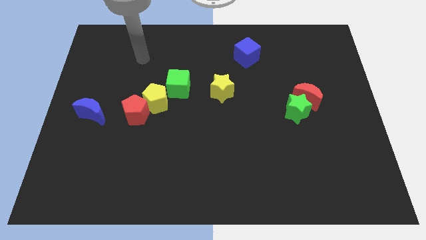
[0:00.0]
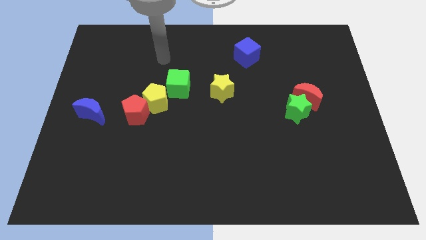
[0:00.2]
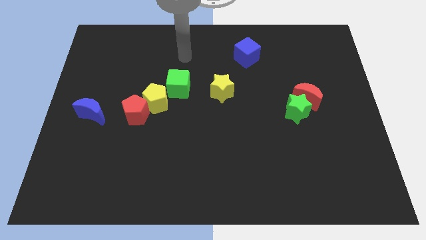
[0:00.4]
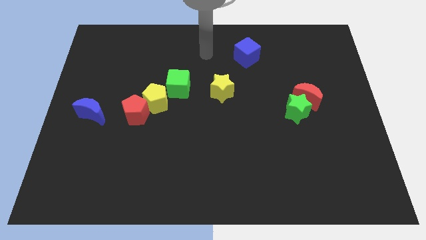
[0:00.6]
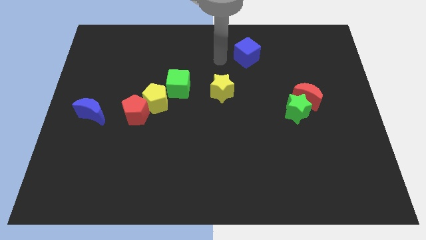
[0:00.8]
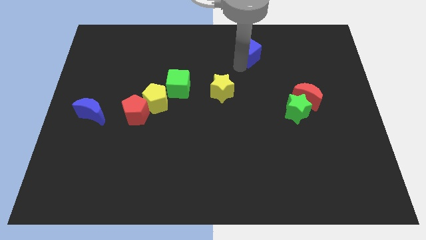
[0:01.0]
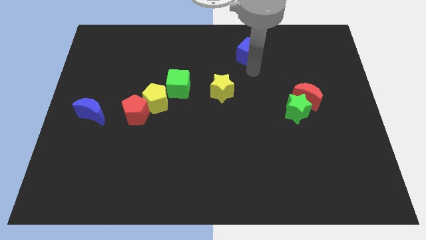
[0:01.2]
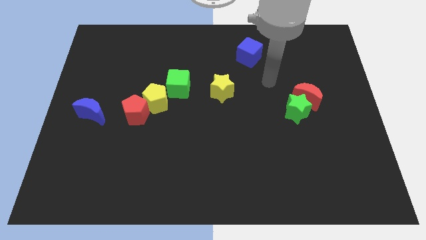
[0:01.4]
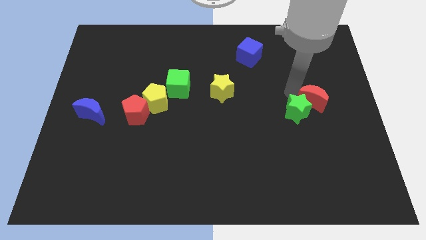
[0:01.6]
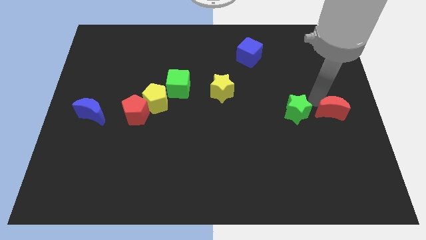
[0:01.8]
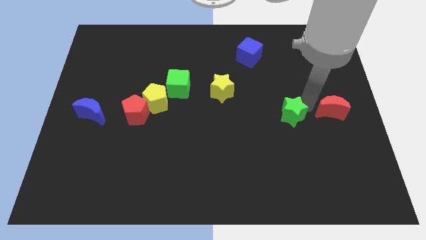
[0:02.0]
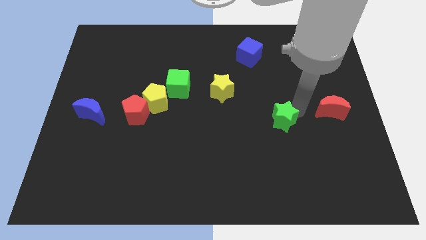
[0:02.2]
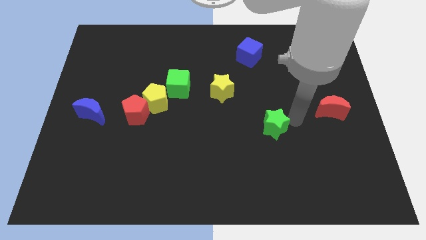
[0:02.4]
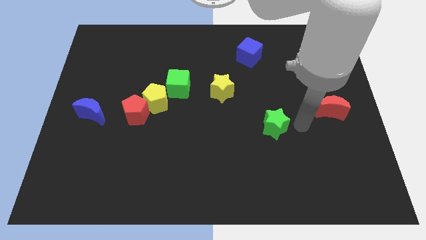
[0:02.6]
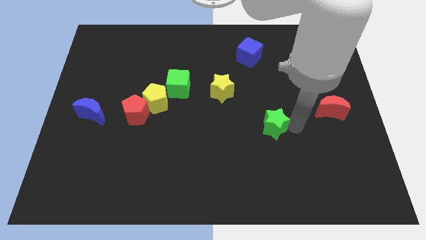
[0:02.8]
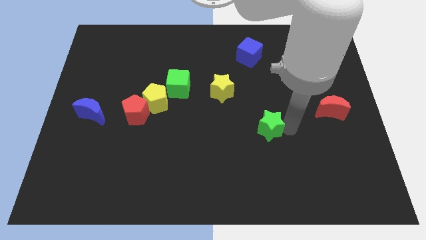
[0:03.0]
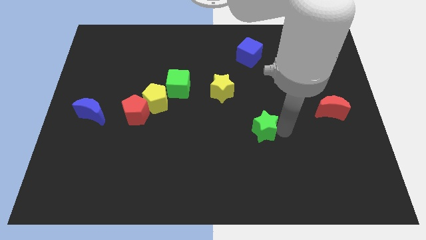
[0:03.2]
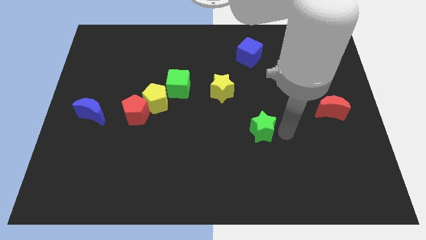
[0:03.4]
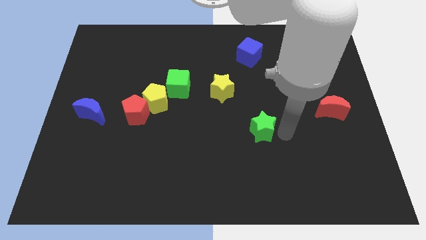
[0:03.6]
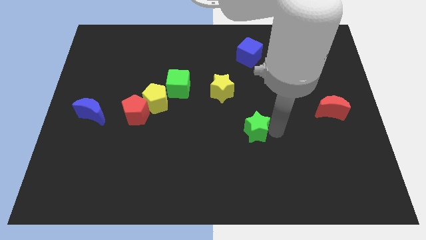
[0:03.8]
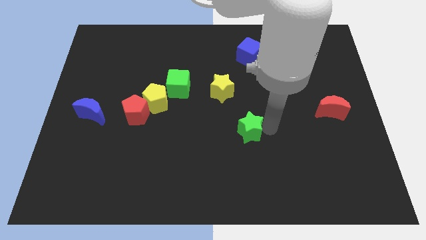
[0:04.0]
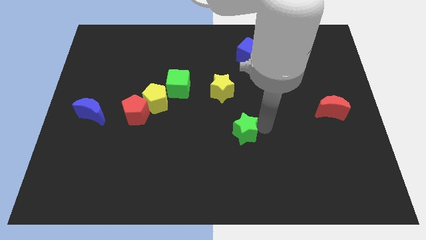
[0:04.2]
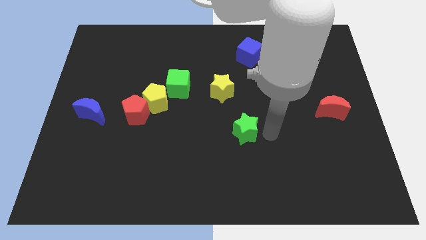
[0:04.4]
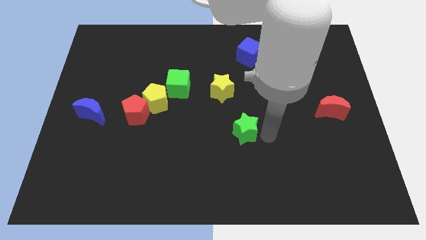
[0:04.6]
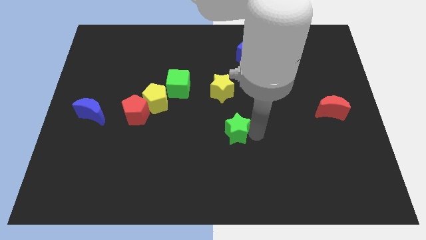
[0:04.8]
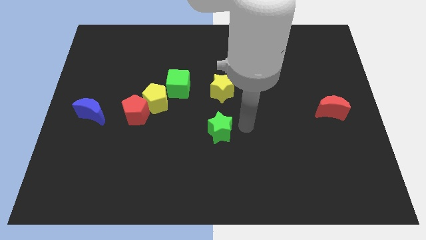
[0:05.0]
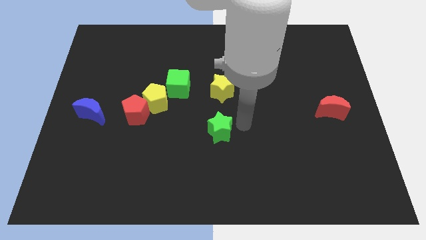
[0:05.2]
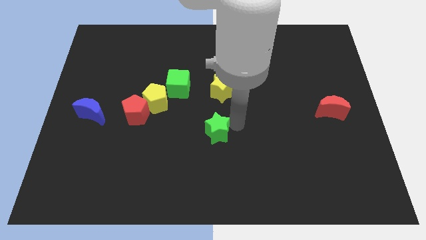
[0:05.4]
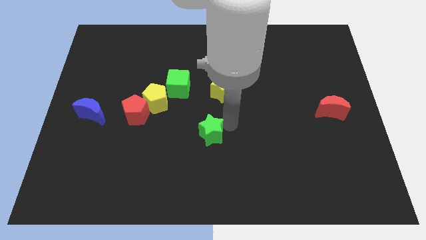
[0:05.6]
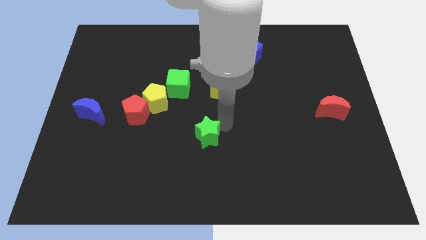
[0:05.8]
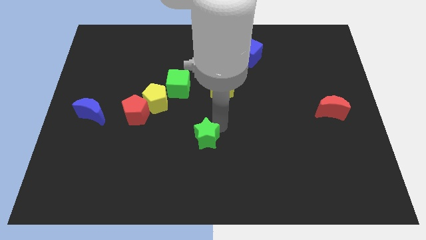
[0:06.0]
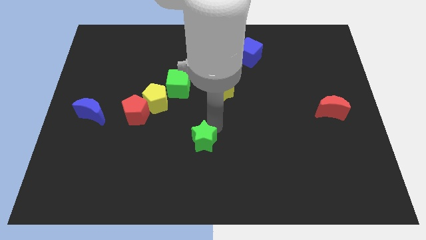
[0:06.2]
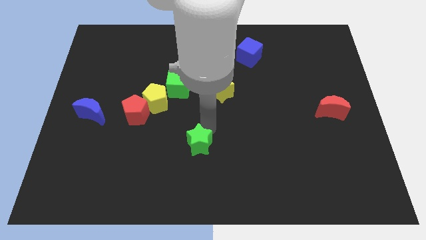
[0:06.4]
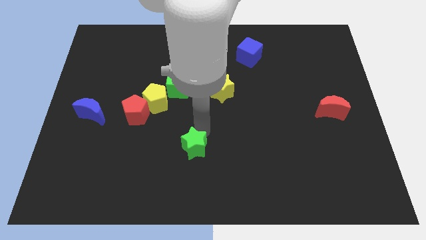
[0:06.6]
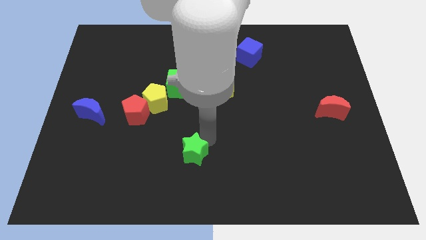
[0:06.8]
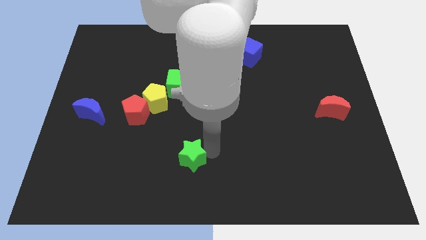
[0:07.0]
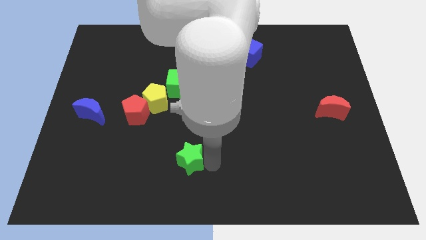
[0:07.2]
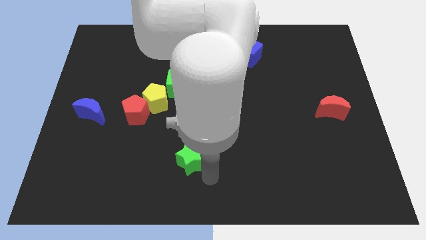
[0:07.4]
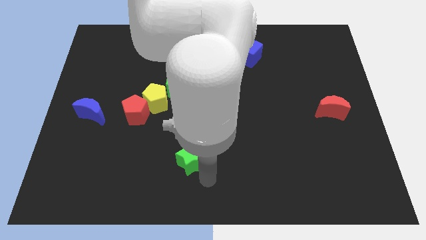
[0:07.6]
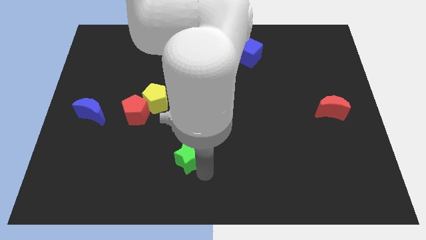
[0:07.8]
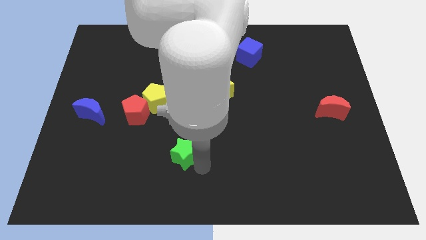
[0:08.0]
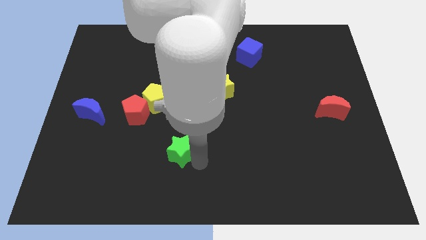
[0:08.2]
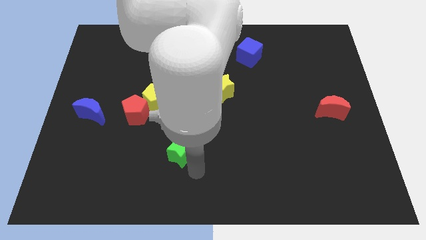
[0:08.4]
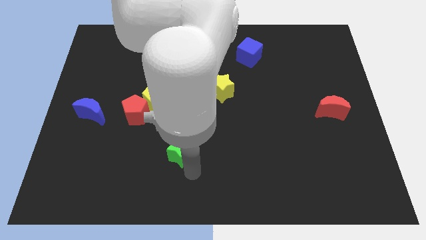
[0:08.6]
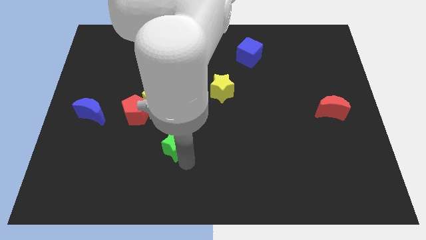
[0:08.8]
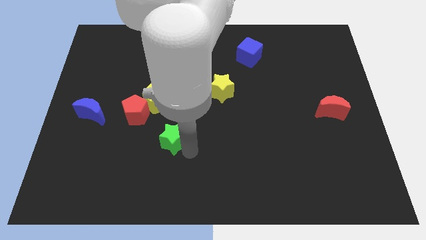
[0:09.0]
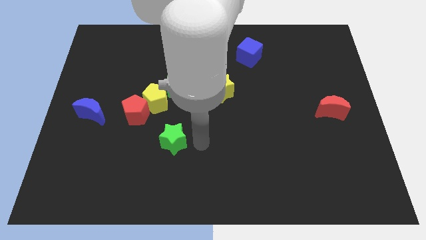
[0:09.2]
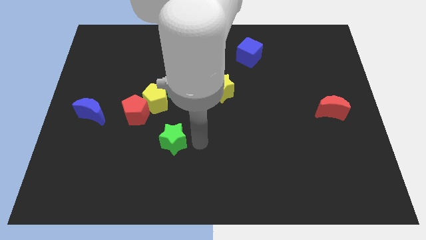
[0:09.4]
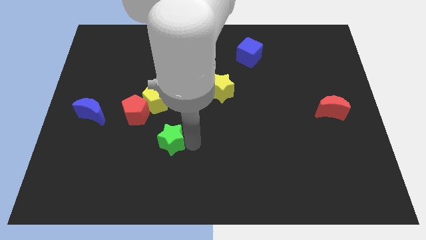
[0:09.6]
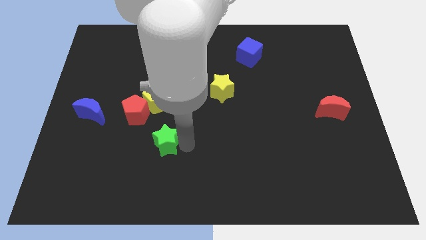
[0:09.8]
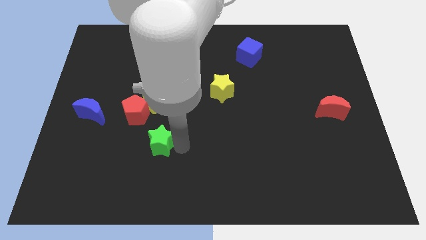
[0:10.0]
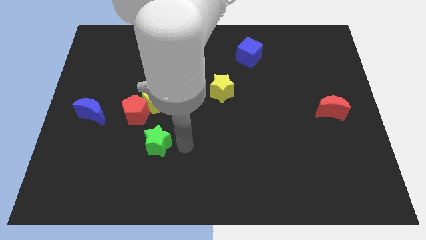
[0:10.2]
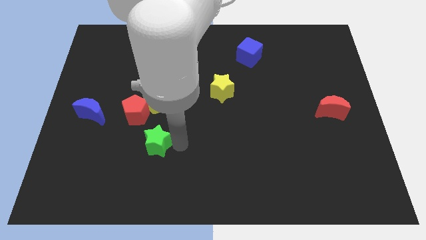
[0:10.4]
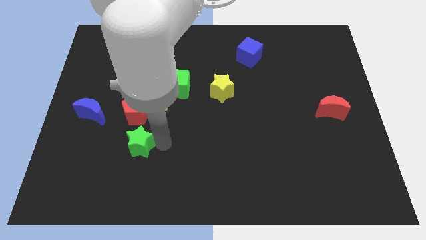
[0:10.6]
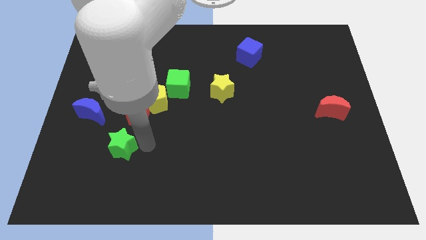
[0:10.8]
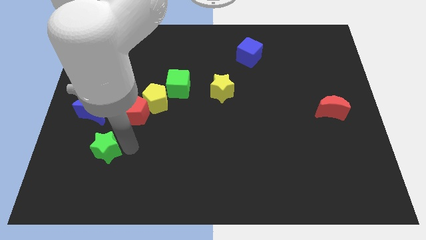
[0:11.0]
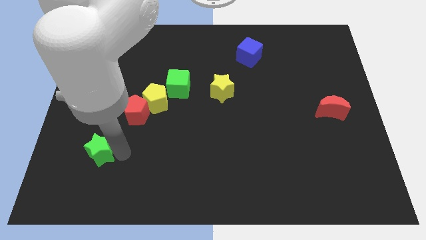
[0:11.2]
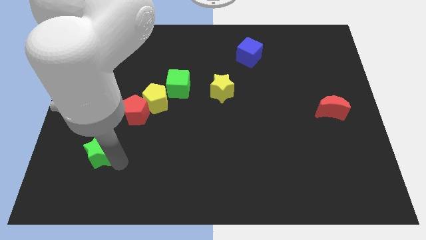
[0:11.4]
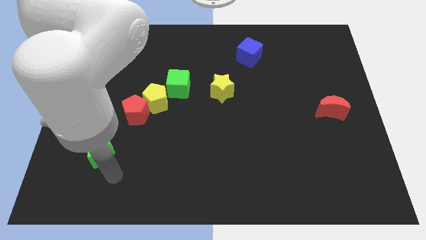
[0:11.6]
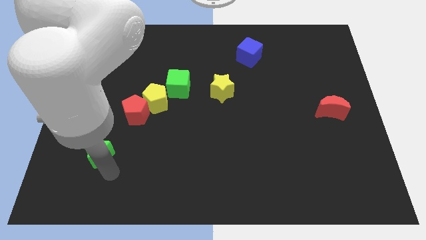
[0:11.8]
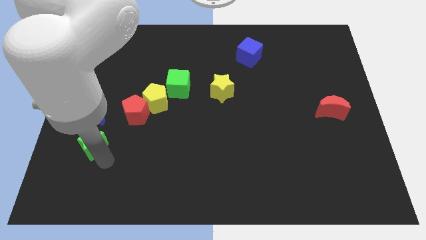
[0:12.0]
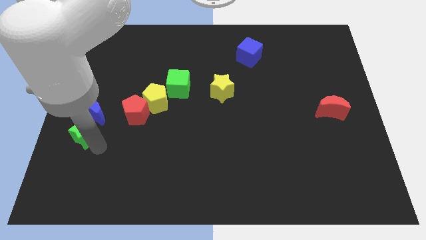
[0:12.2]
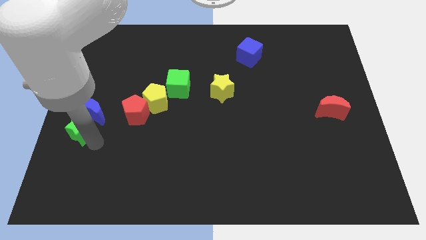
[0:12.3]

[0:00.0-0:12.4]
slide the green star to the center left
